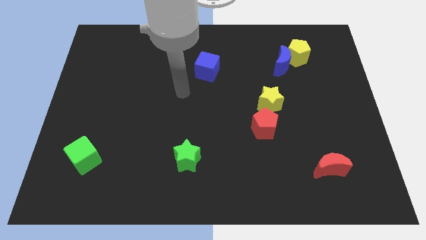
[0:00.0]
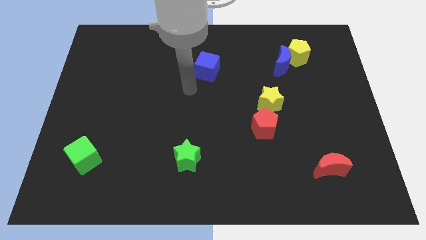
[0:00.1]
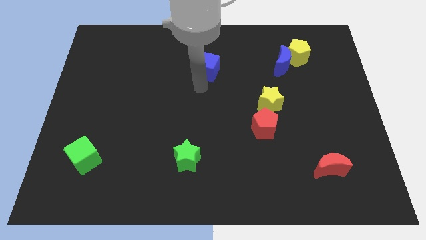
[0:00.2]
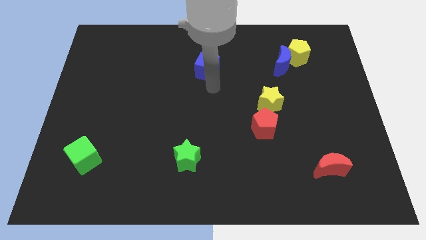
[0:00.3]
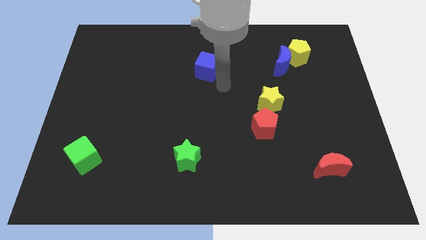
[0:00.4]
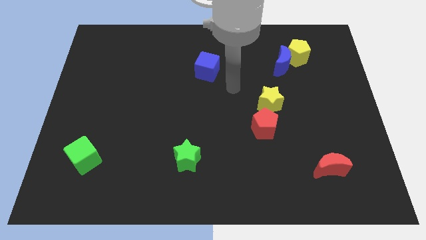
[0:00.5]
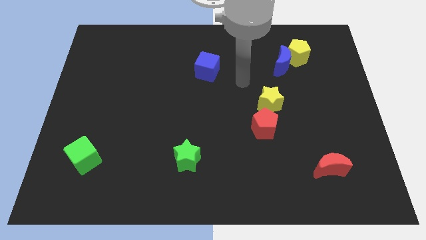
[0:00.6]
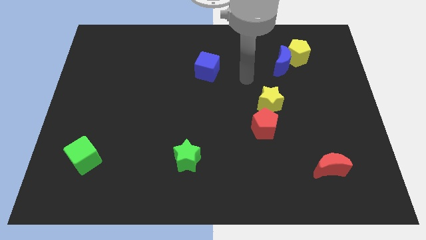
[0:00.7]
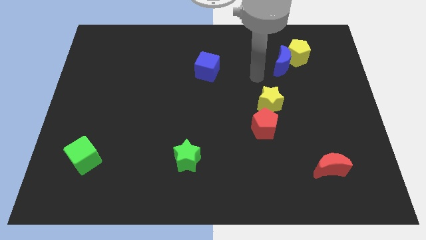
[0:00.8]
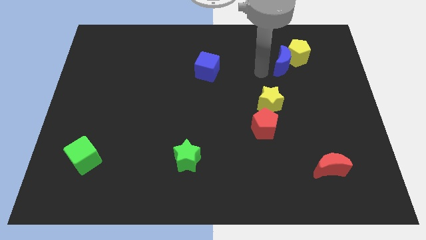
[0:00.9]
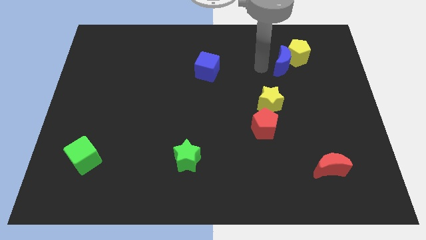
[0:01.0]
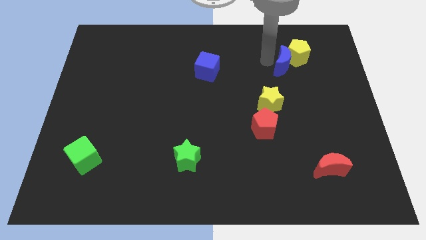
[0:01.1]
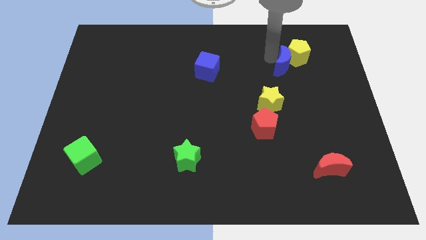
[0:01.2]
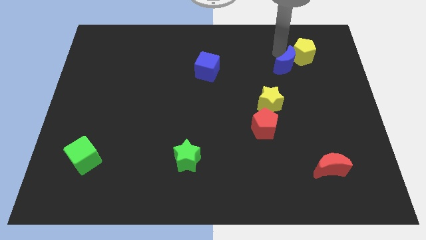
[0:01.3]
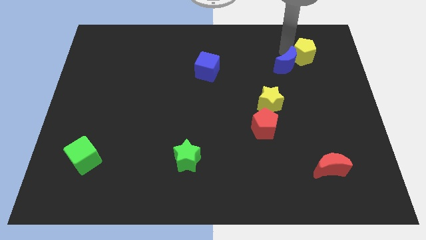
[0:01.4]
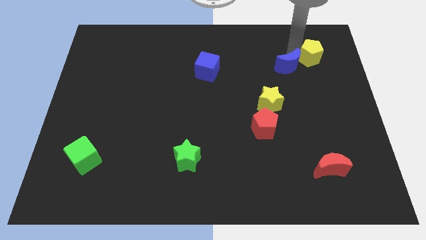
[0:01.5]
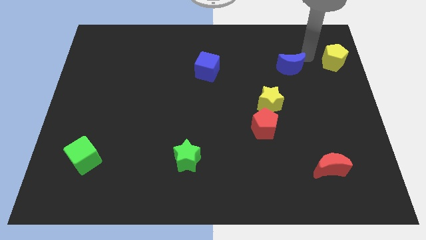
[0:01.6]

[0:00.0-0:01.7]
move the blue moon away from the yellow pentagon

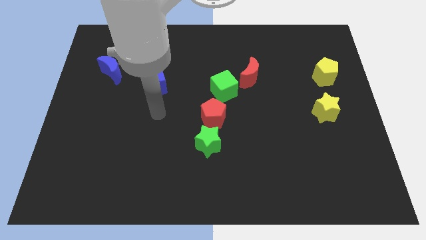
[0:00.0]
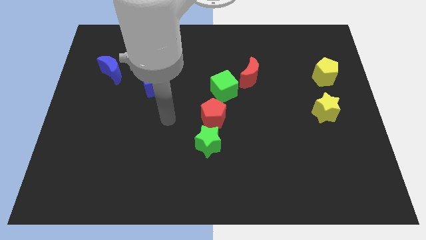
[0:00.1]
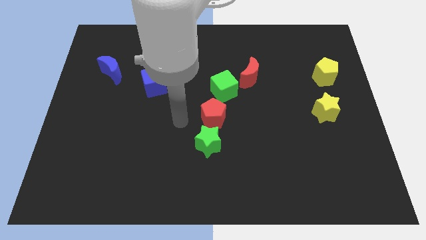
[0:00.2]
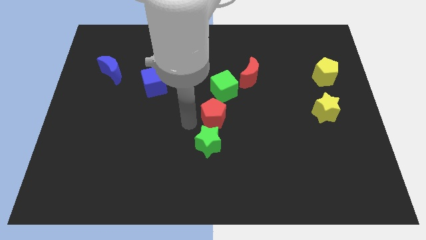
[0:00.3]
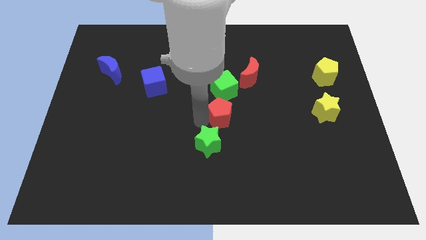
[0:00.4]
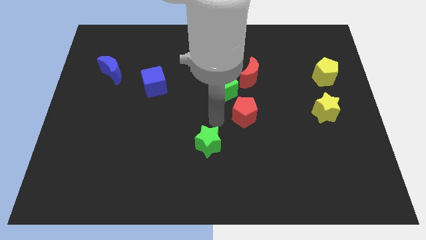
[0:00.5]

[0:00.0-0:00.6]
separate the green star from the red pentagon

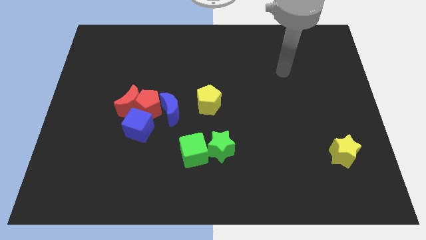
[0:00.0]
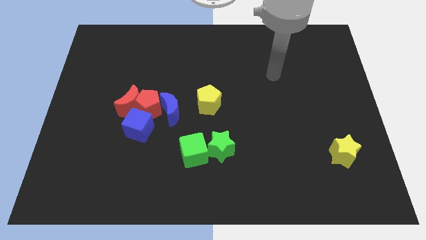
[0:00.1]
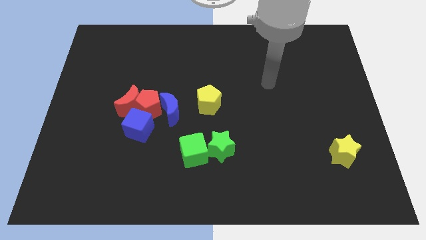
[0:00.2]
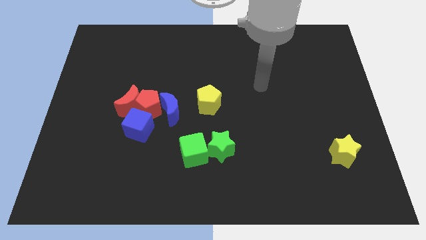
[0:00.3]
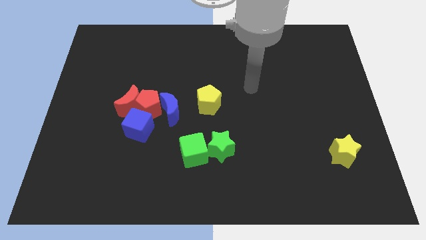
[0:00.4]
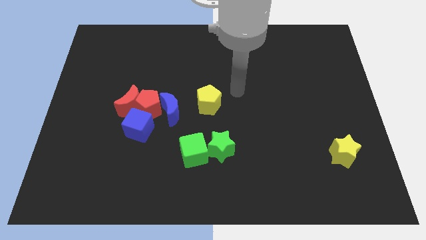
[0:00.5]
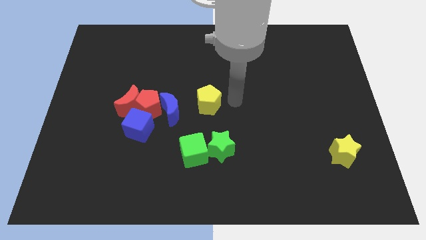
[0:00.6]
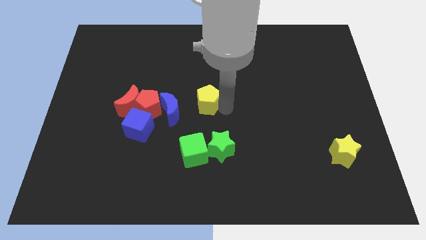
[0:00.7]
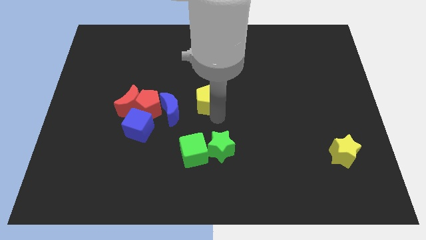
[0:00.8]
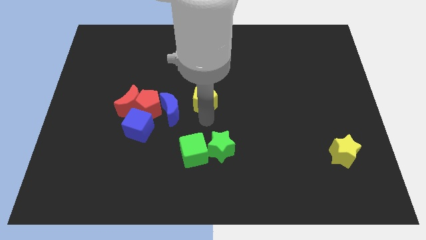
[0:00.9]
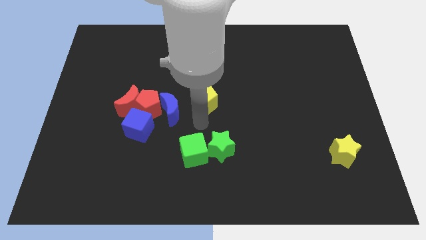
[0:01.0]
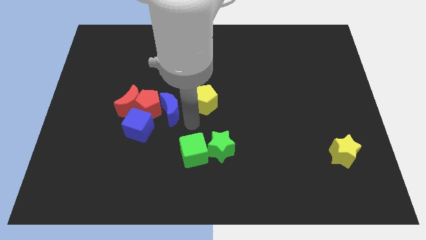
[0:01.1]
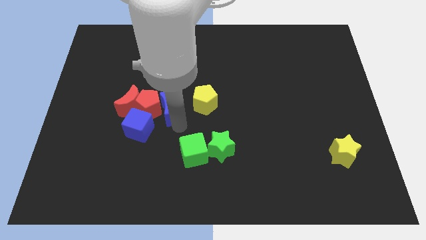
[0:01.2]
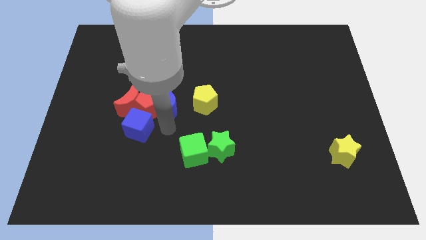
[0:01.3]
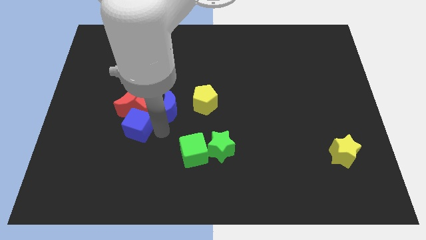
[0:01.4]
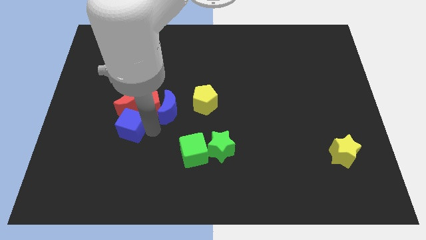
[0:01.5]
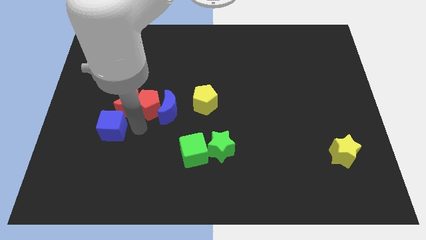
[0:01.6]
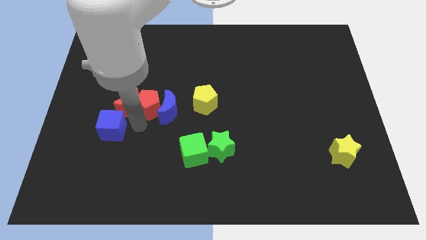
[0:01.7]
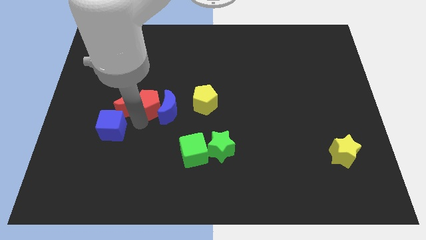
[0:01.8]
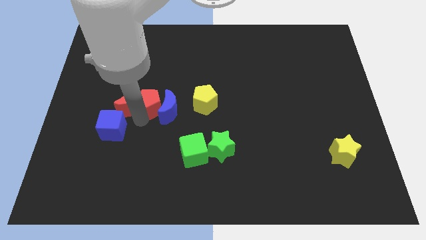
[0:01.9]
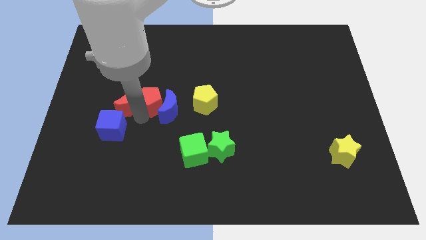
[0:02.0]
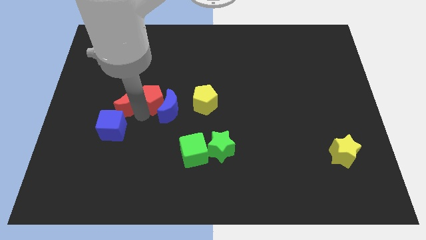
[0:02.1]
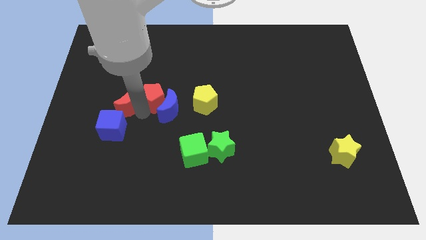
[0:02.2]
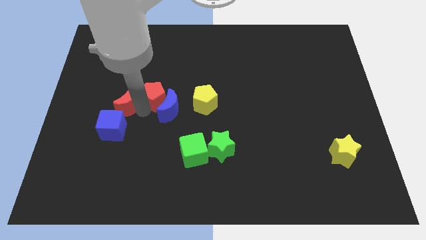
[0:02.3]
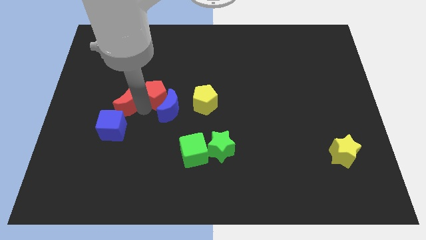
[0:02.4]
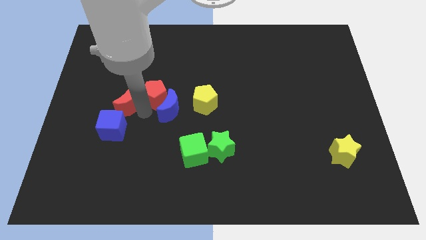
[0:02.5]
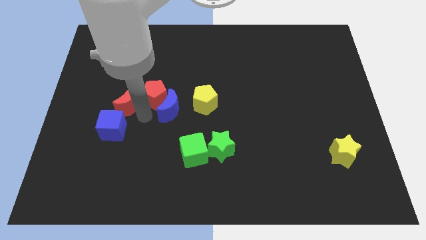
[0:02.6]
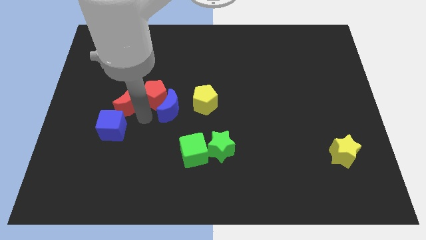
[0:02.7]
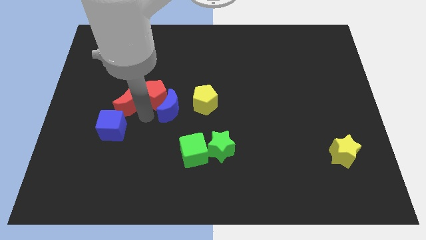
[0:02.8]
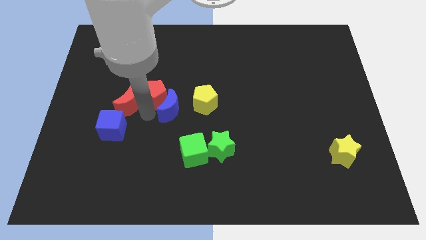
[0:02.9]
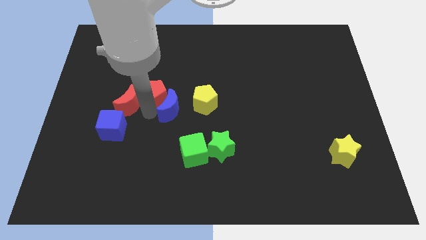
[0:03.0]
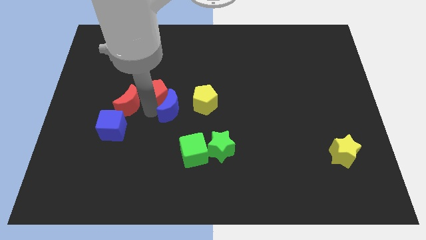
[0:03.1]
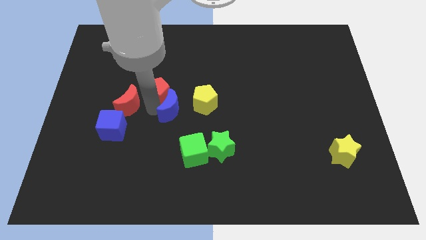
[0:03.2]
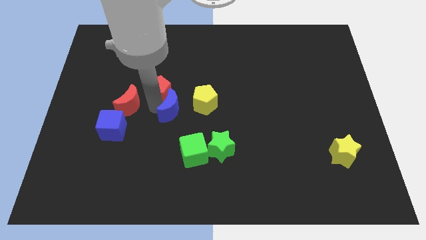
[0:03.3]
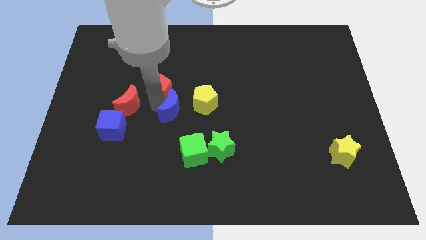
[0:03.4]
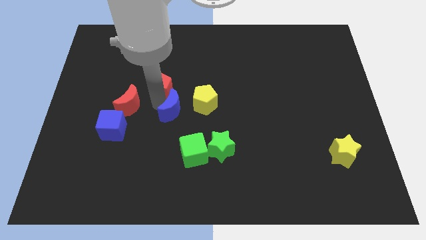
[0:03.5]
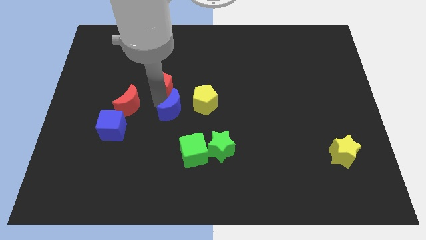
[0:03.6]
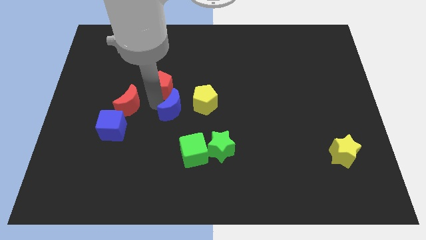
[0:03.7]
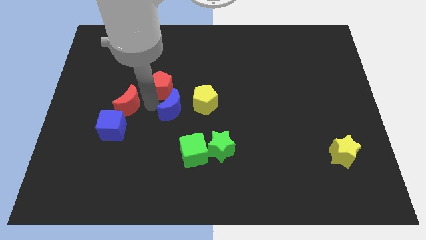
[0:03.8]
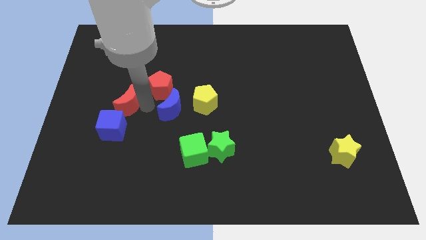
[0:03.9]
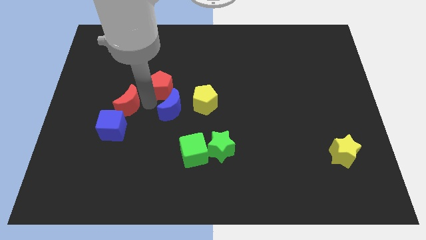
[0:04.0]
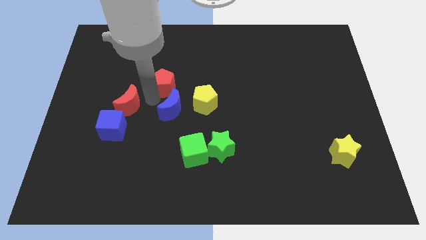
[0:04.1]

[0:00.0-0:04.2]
pull the red pentagon apart from the red moon, blue moon, and blue cube

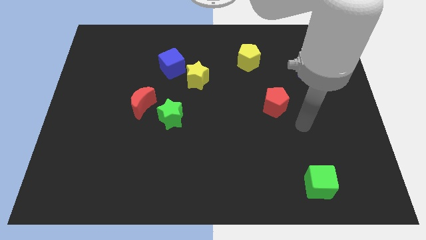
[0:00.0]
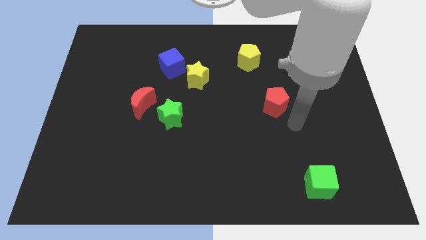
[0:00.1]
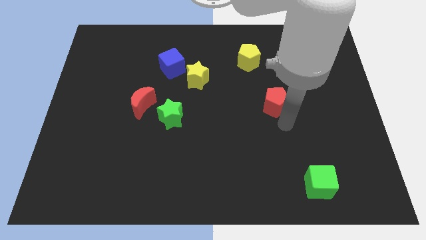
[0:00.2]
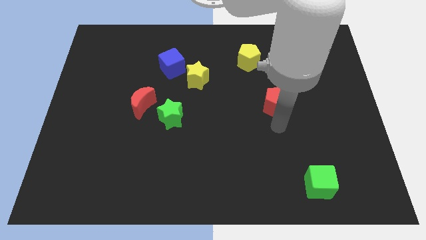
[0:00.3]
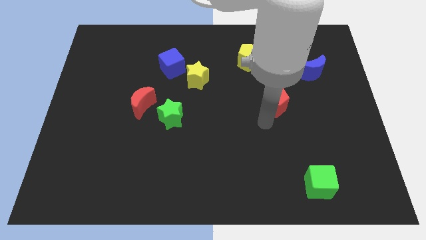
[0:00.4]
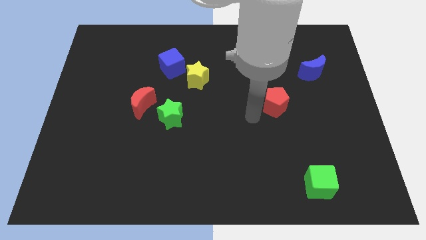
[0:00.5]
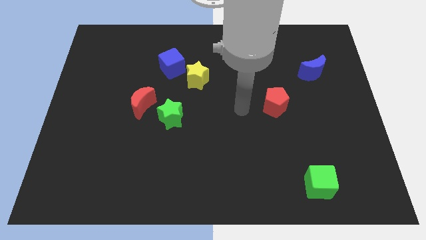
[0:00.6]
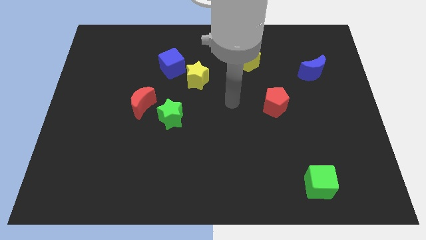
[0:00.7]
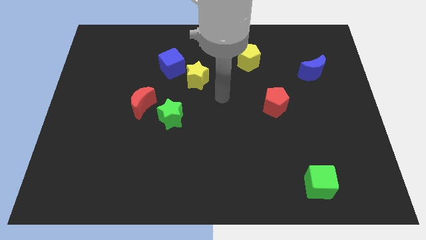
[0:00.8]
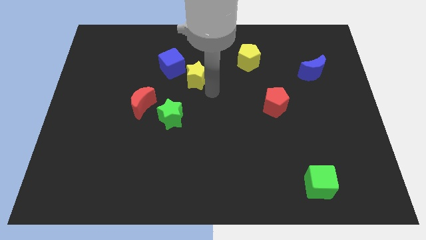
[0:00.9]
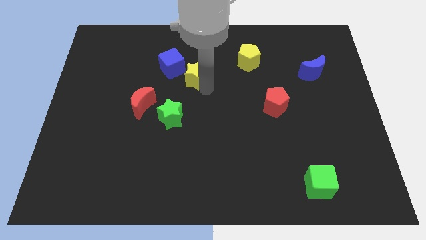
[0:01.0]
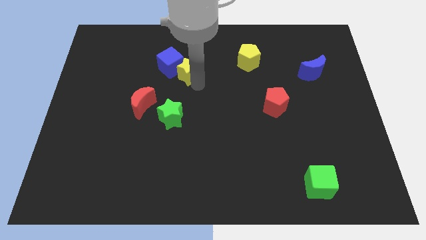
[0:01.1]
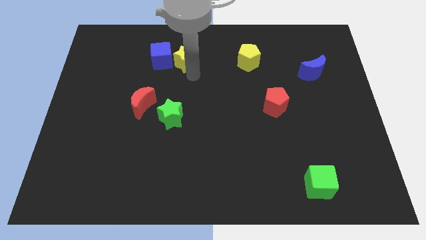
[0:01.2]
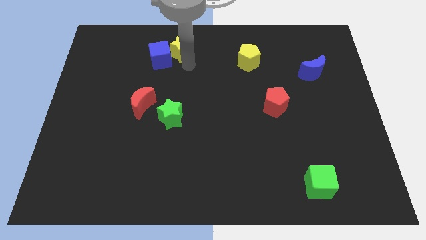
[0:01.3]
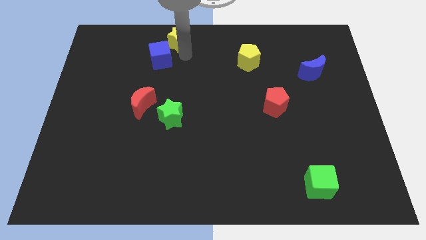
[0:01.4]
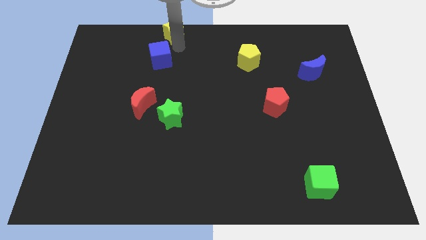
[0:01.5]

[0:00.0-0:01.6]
separate the blue cube from the yellow star

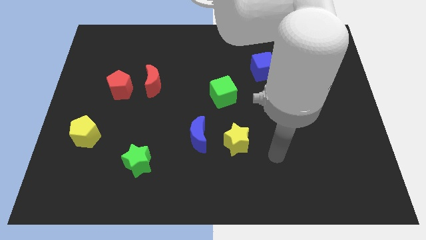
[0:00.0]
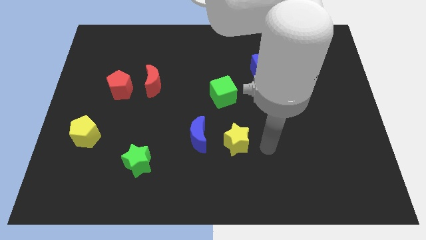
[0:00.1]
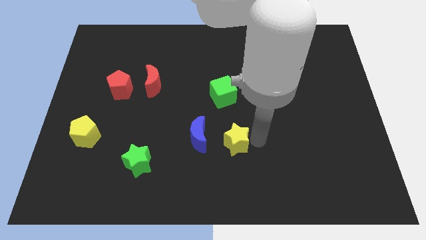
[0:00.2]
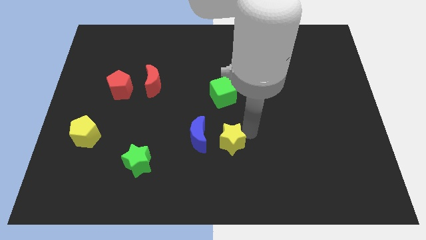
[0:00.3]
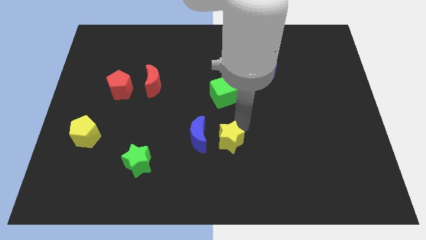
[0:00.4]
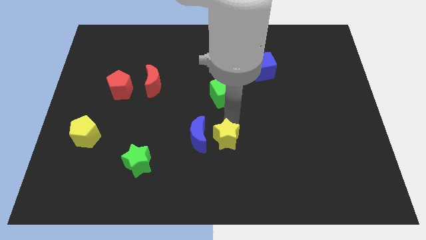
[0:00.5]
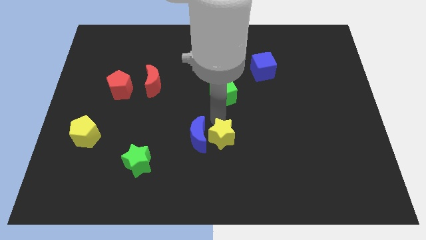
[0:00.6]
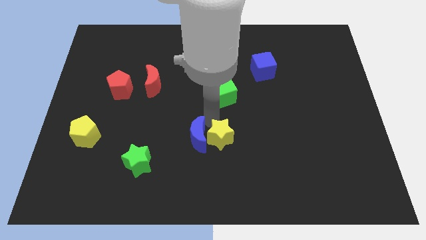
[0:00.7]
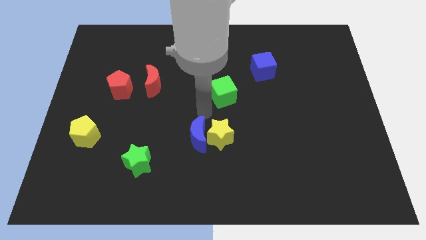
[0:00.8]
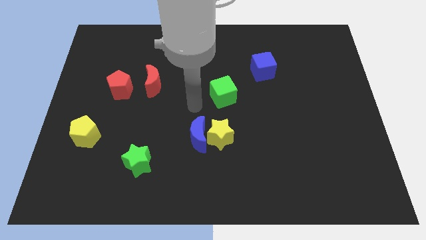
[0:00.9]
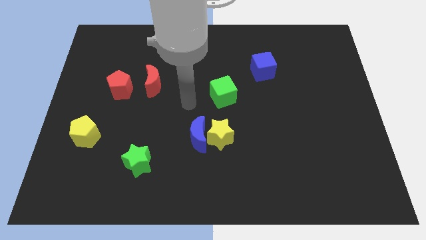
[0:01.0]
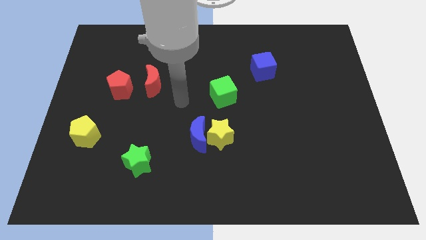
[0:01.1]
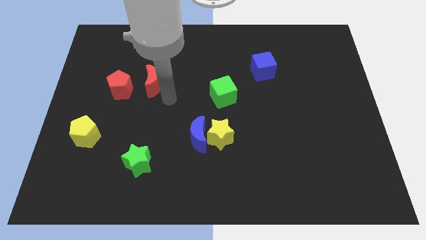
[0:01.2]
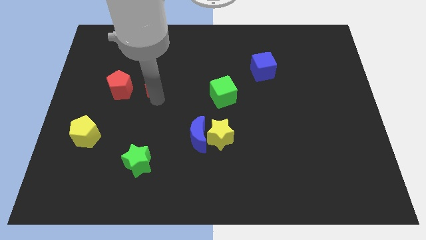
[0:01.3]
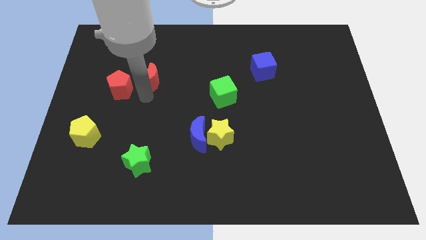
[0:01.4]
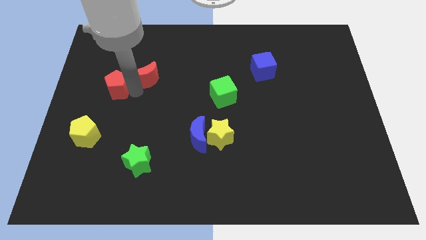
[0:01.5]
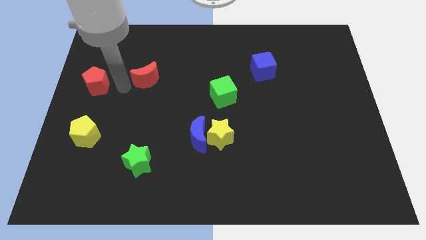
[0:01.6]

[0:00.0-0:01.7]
separate the red moon from the red pentagon
